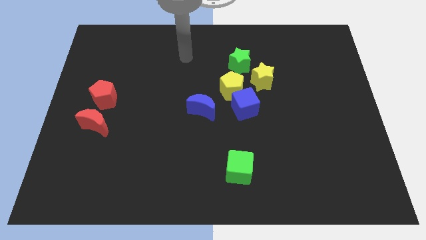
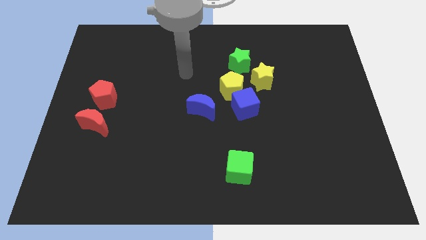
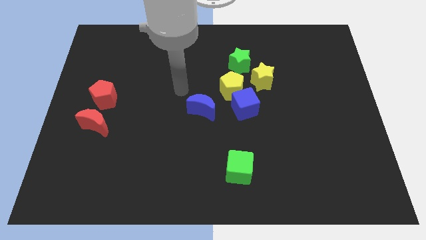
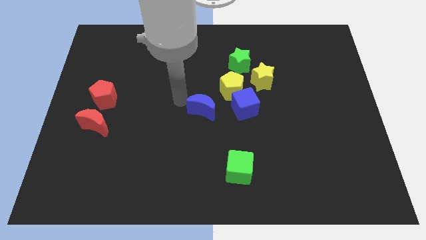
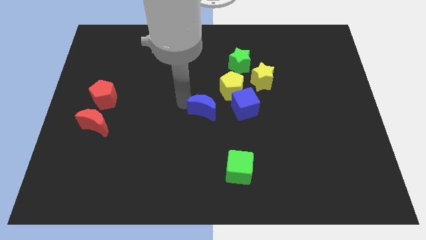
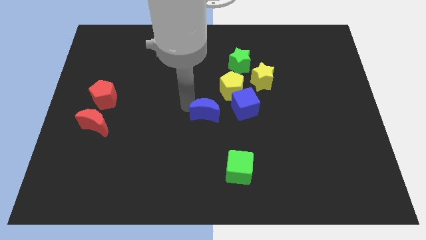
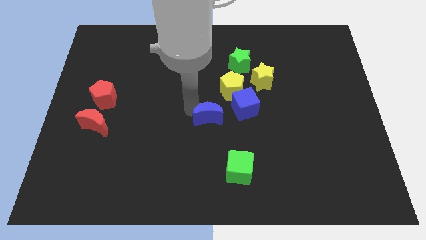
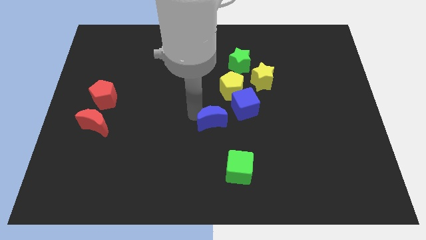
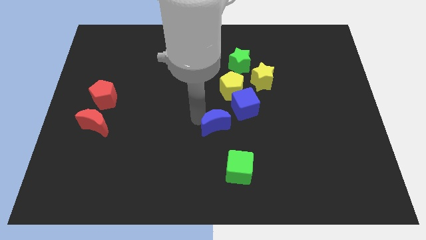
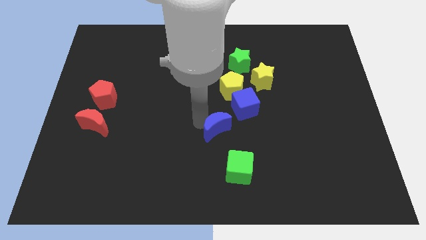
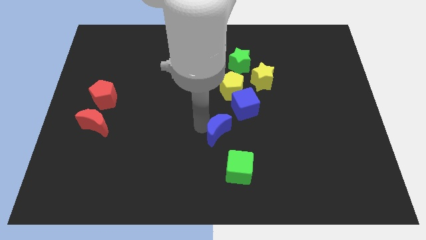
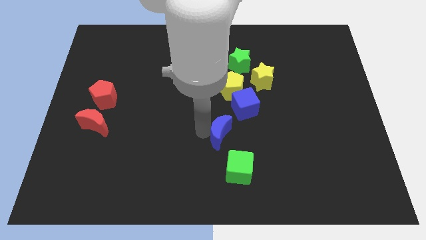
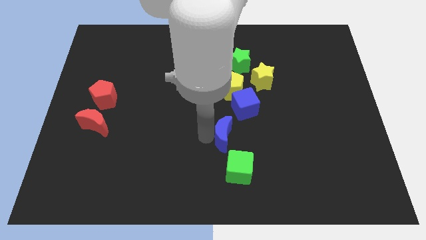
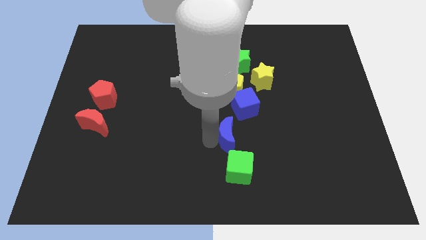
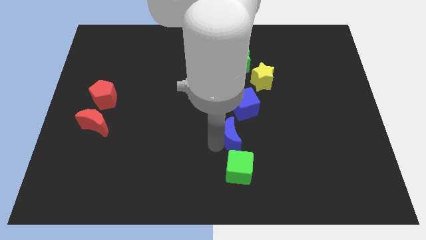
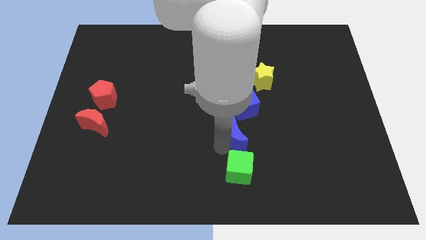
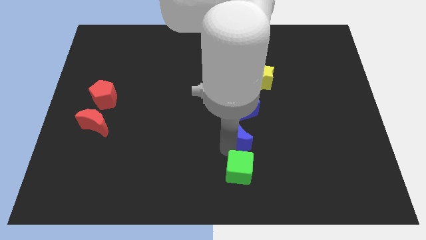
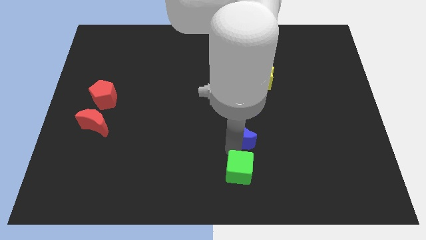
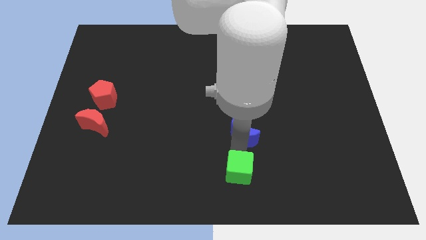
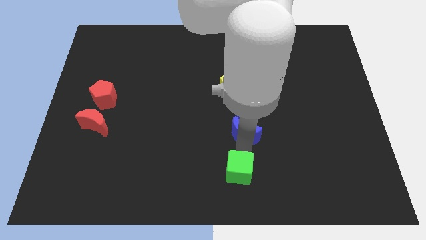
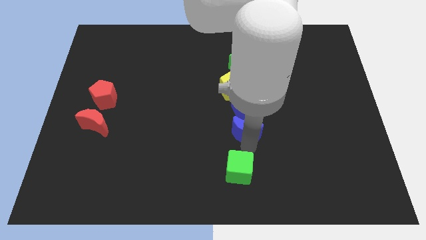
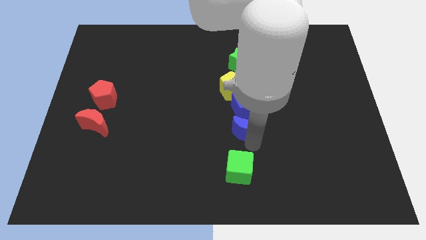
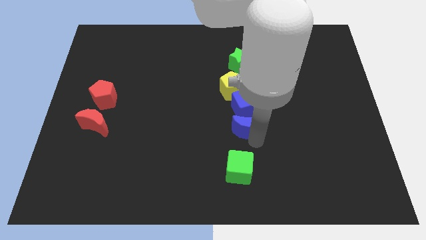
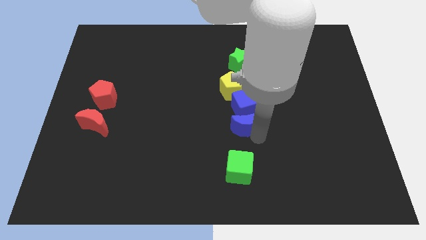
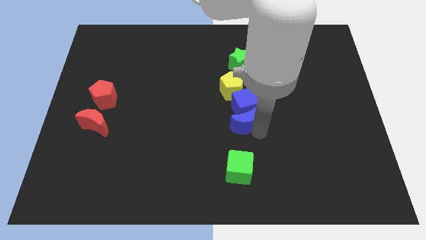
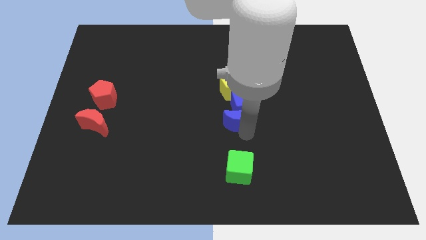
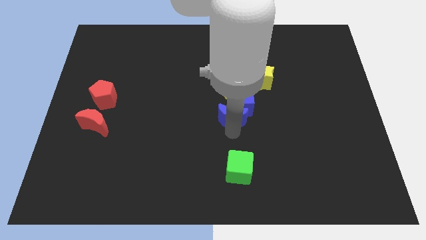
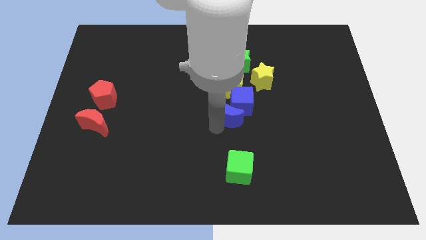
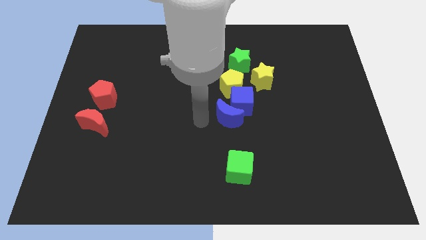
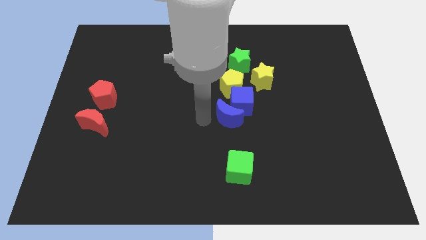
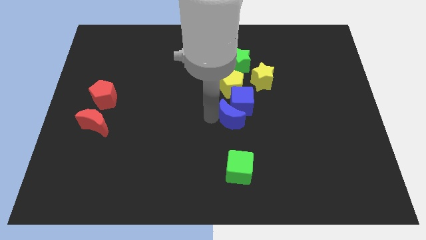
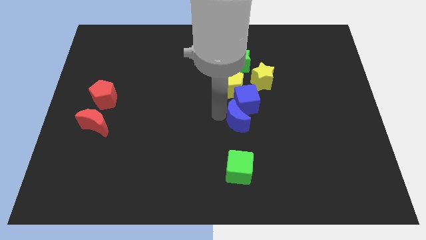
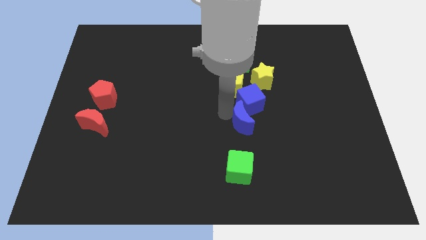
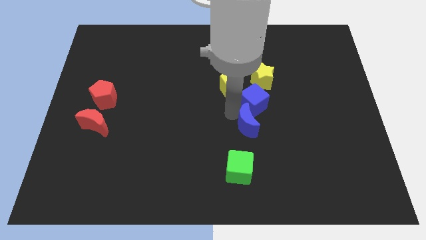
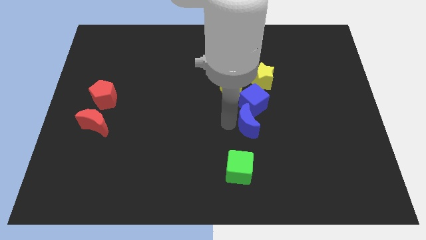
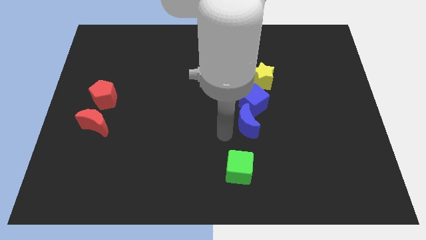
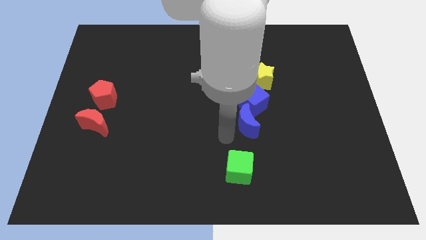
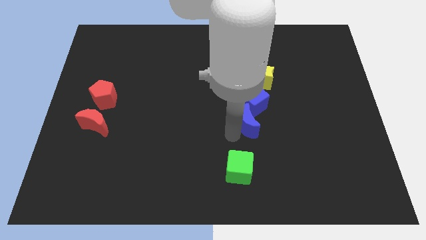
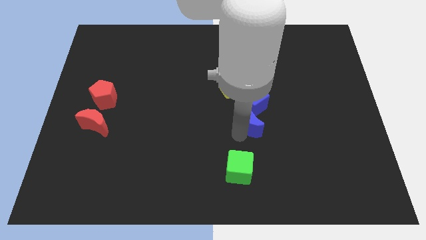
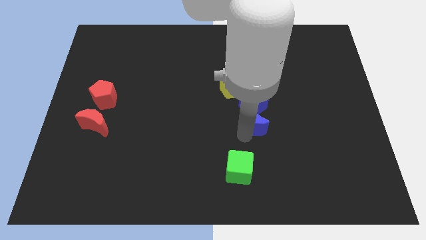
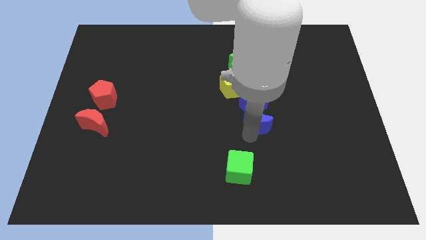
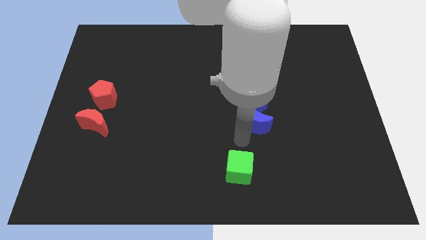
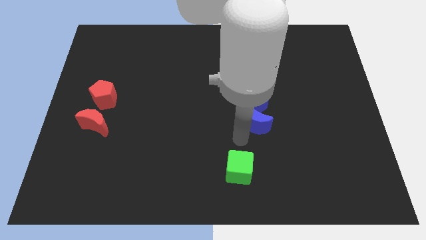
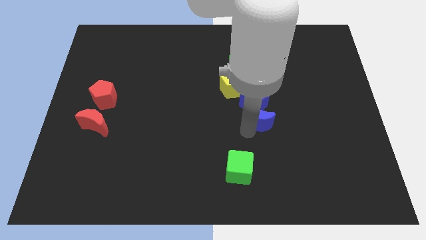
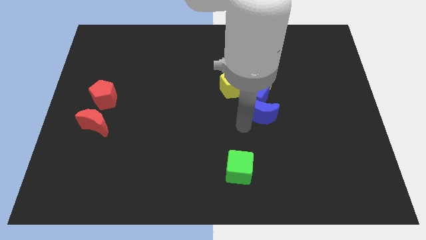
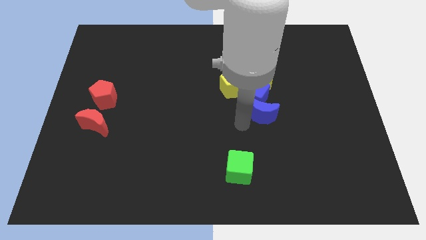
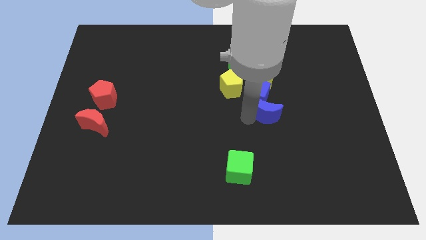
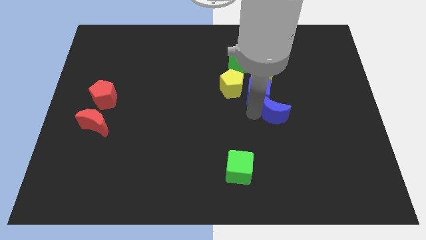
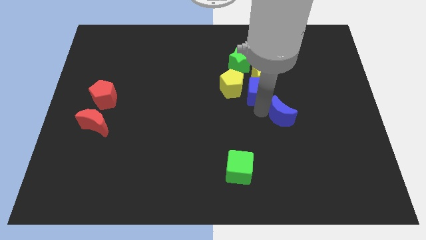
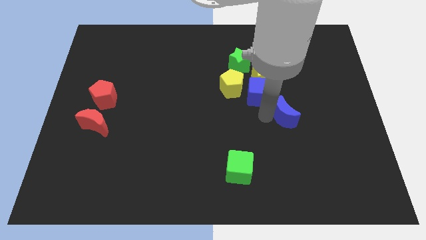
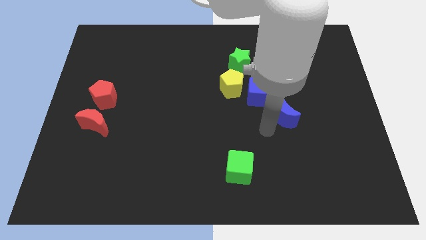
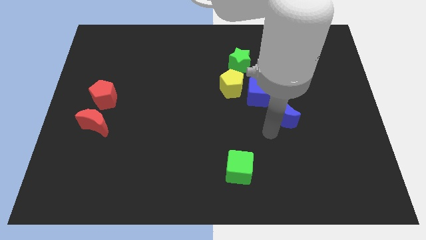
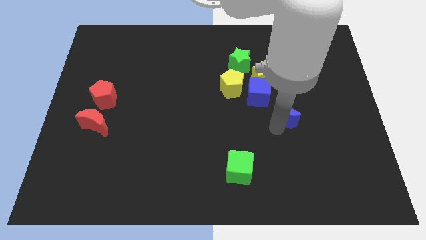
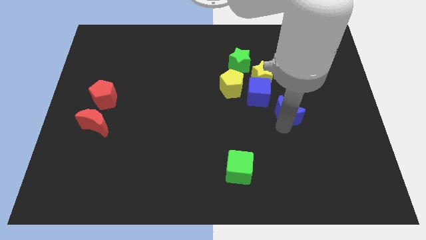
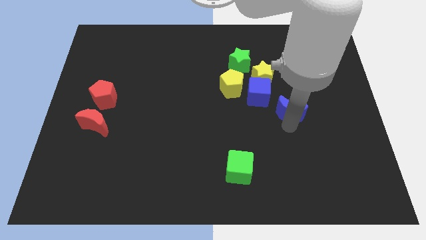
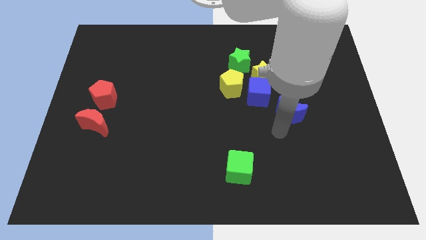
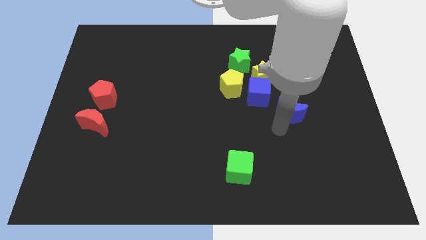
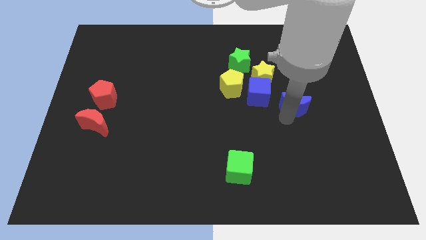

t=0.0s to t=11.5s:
slide the blue moon to the right of the blue cube

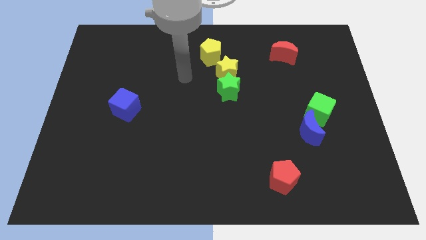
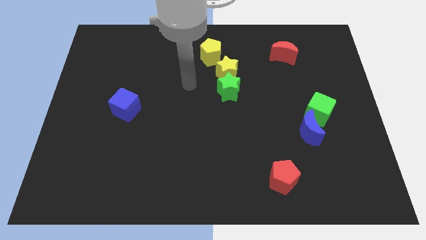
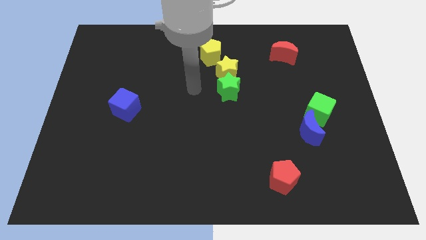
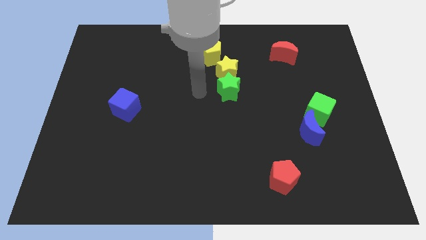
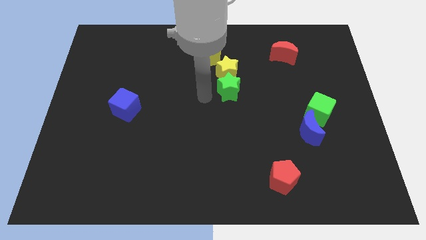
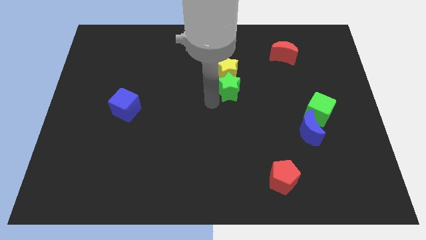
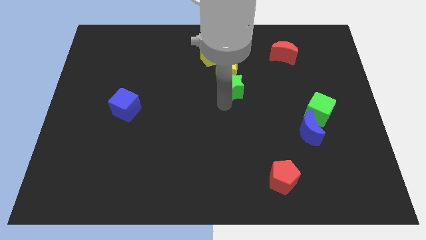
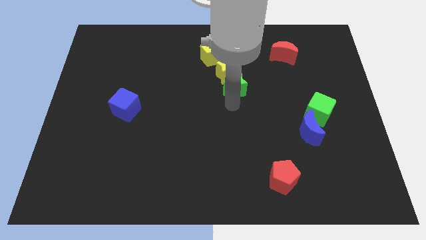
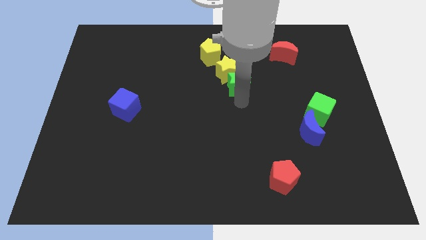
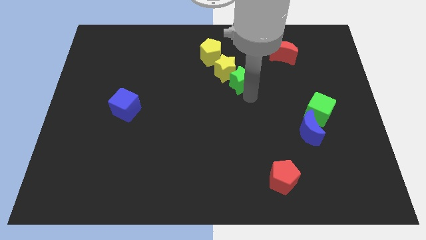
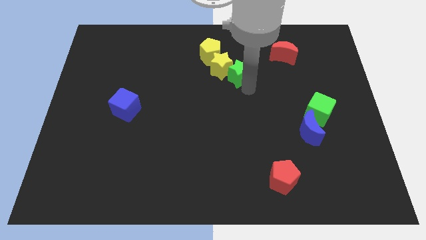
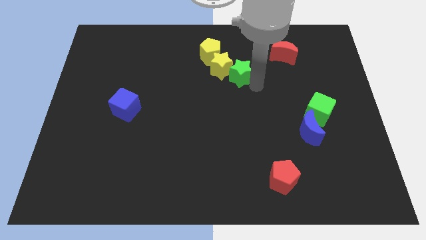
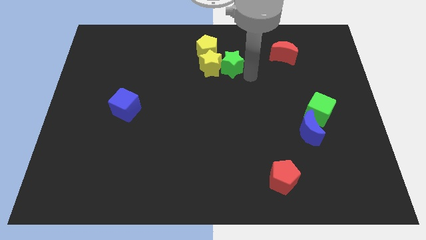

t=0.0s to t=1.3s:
put the yellow star to the bottom left of the yellow pentagon
